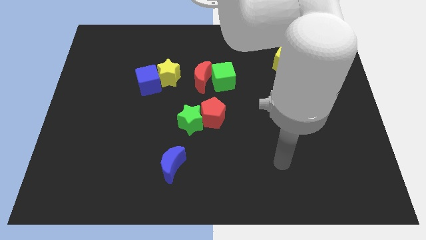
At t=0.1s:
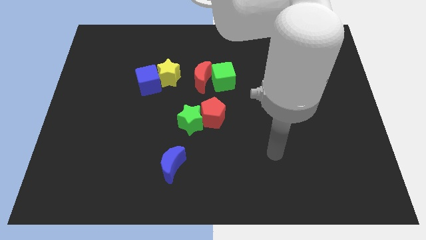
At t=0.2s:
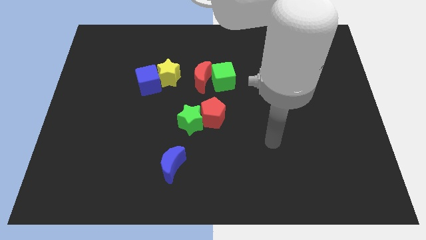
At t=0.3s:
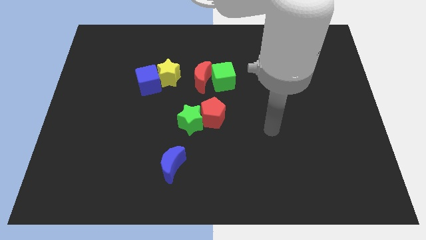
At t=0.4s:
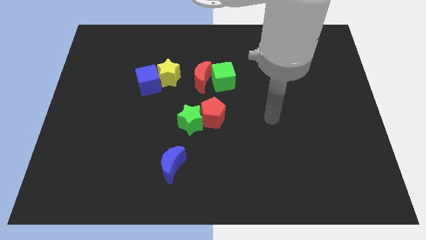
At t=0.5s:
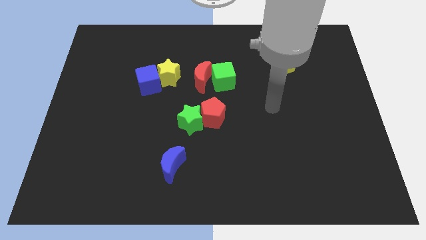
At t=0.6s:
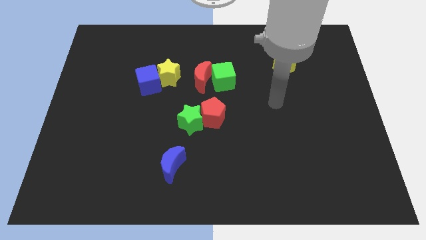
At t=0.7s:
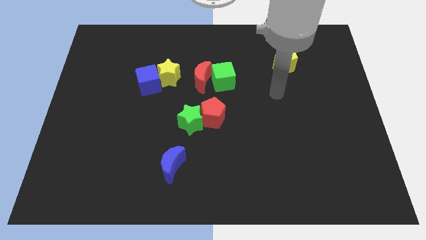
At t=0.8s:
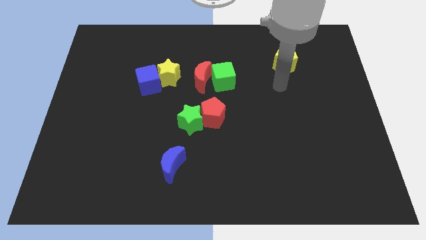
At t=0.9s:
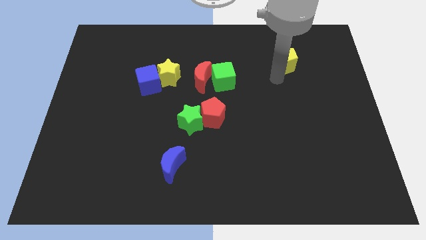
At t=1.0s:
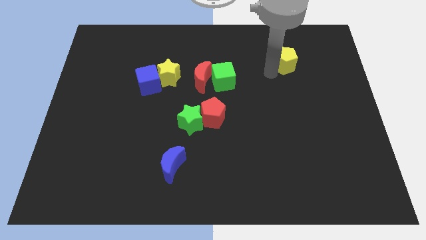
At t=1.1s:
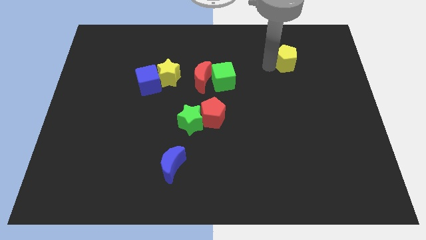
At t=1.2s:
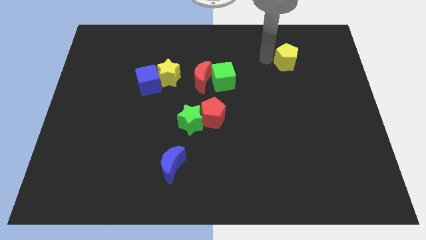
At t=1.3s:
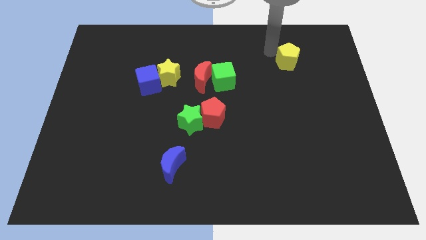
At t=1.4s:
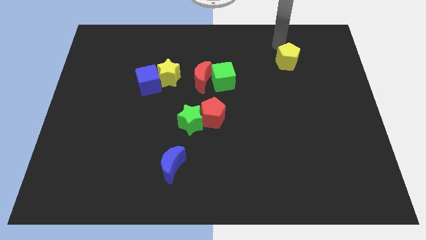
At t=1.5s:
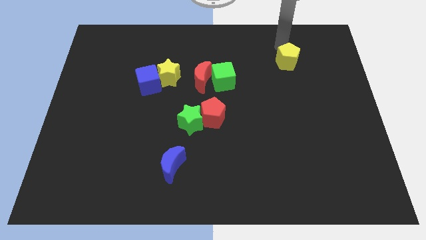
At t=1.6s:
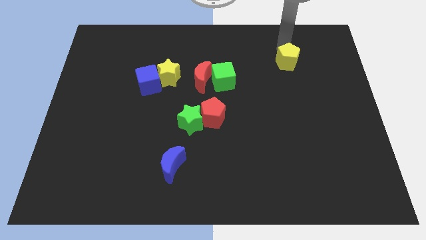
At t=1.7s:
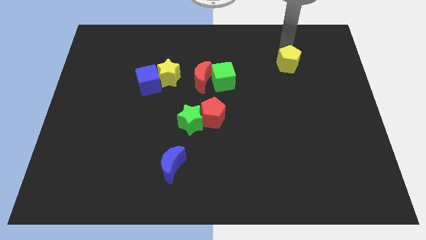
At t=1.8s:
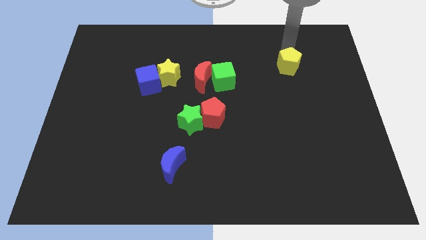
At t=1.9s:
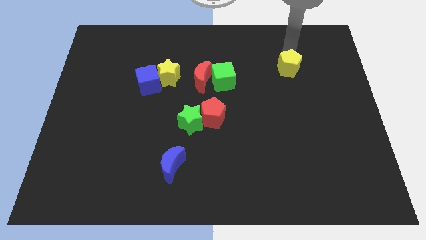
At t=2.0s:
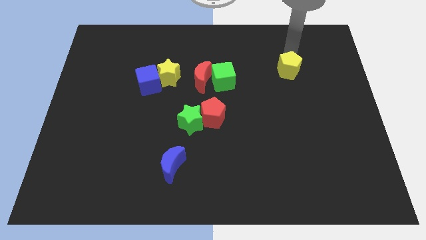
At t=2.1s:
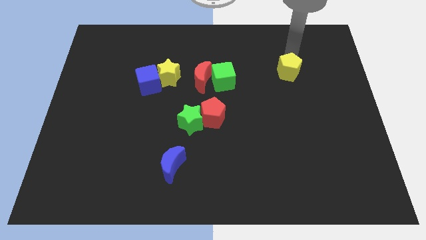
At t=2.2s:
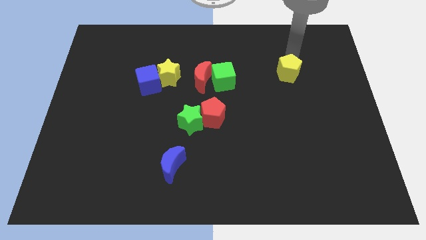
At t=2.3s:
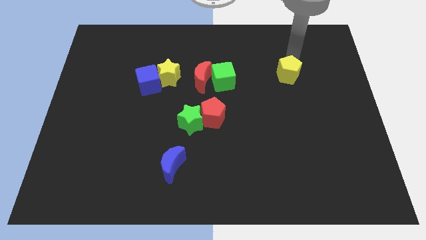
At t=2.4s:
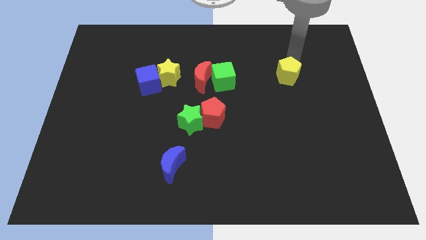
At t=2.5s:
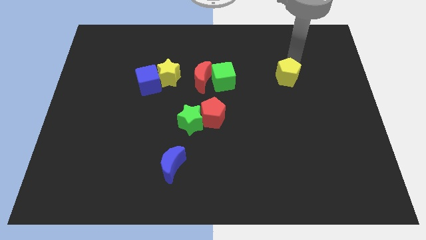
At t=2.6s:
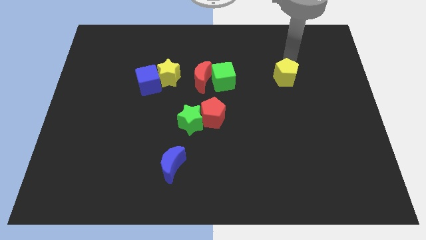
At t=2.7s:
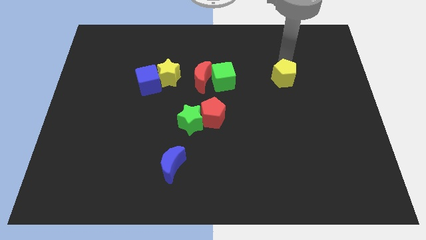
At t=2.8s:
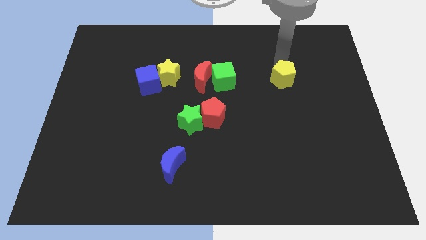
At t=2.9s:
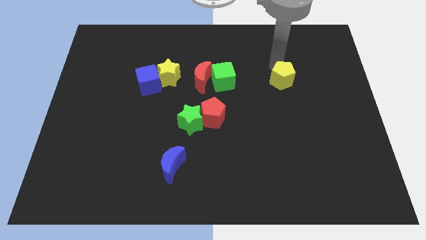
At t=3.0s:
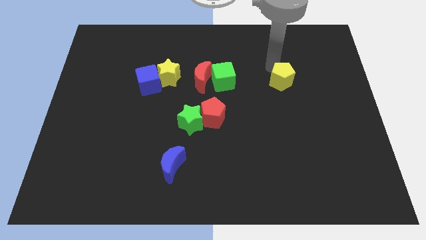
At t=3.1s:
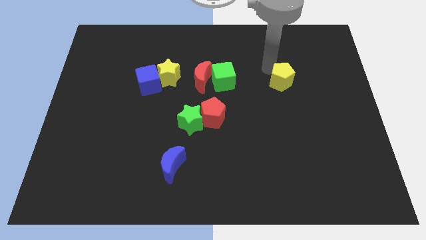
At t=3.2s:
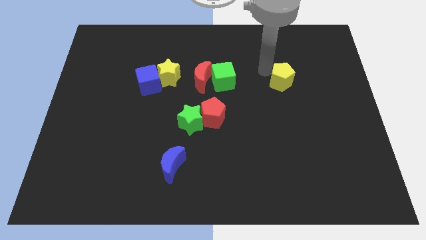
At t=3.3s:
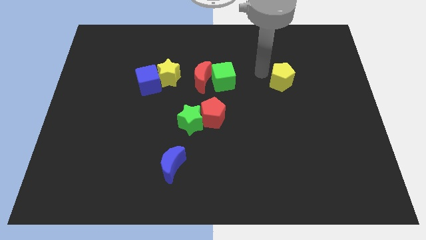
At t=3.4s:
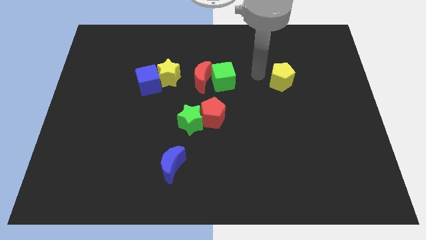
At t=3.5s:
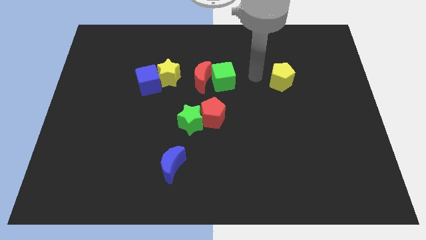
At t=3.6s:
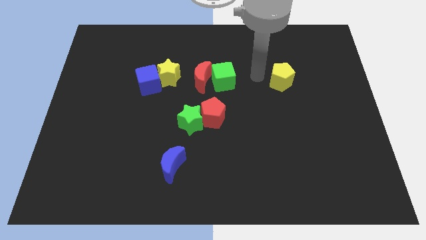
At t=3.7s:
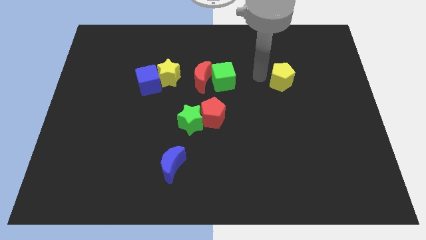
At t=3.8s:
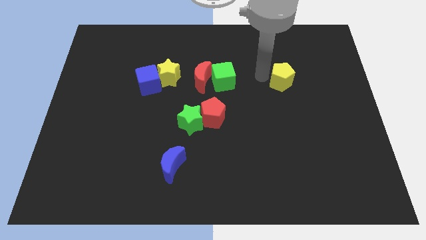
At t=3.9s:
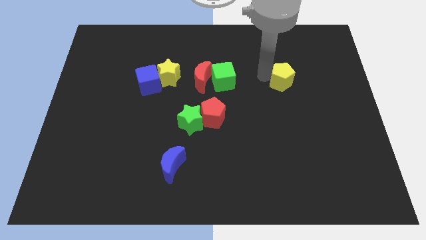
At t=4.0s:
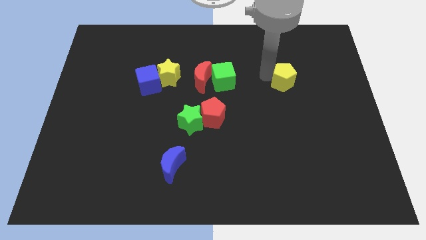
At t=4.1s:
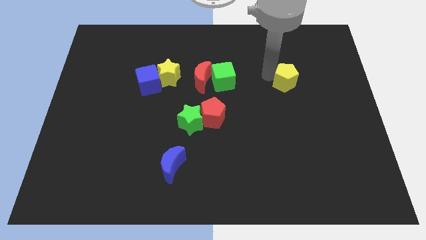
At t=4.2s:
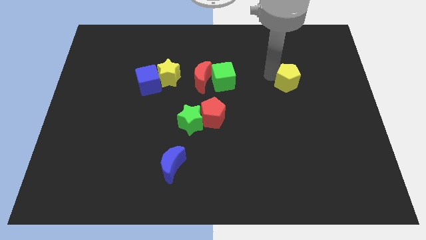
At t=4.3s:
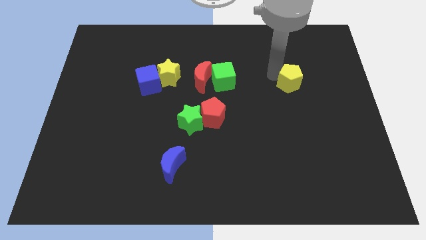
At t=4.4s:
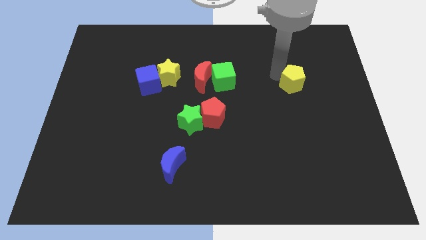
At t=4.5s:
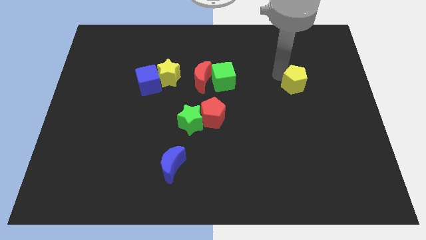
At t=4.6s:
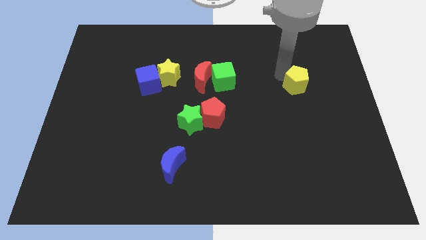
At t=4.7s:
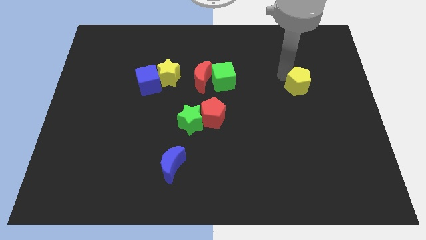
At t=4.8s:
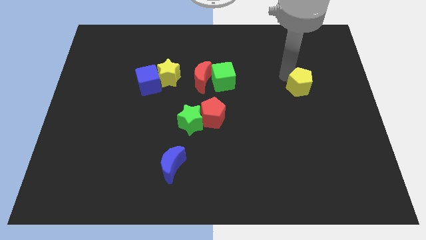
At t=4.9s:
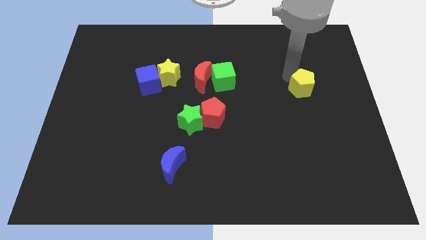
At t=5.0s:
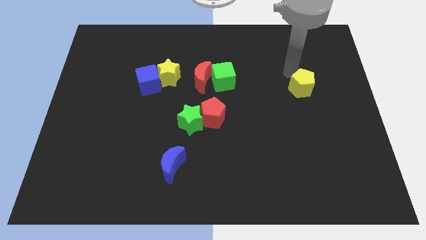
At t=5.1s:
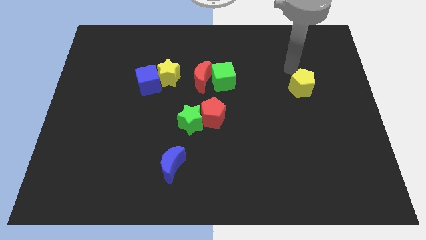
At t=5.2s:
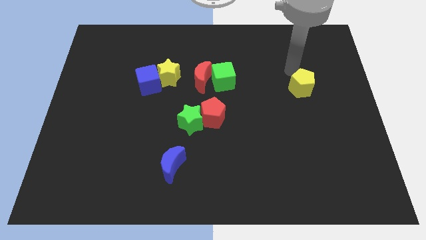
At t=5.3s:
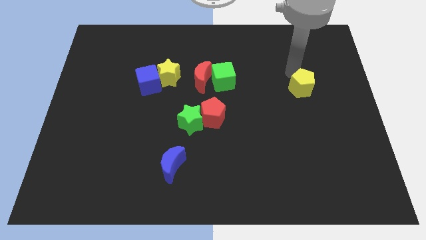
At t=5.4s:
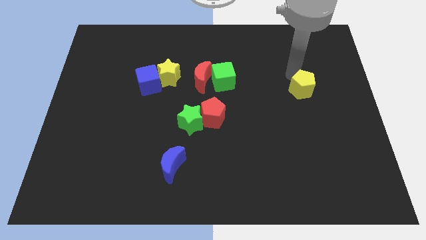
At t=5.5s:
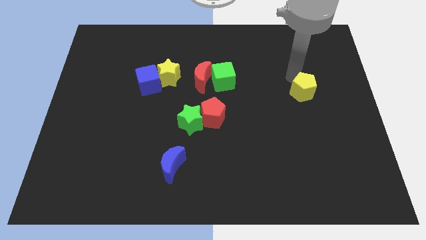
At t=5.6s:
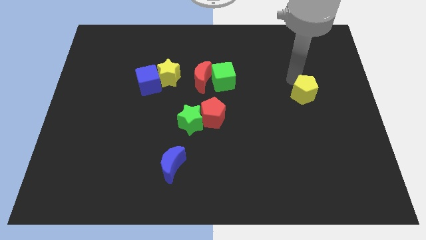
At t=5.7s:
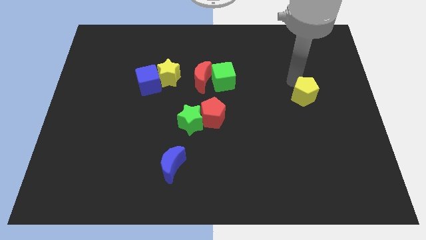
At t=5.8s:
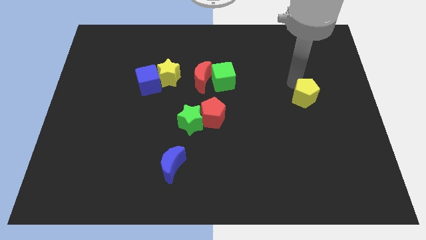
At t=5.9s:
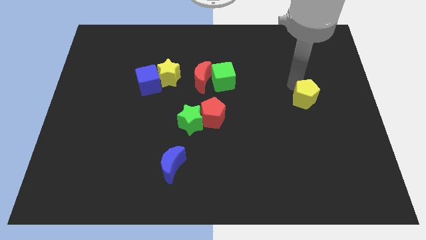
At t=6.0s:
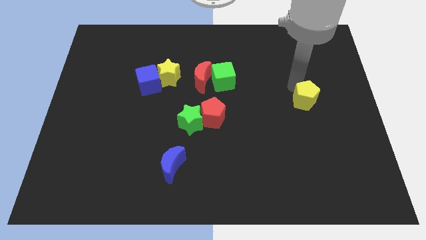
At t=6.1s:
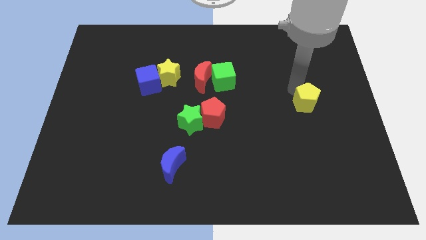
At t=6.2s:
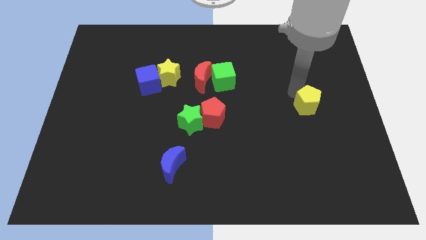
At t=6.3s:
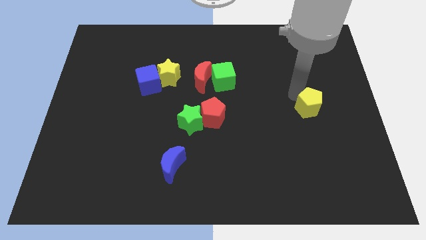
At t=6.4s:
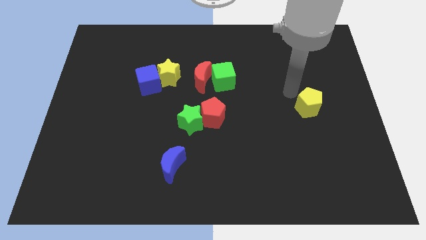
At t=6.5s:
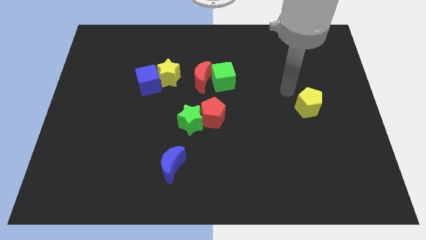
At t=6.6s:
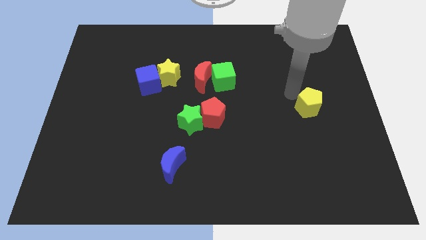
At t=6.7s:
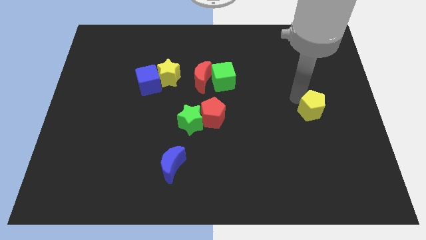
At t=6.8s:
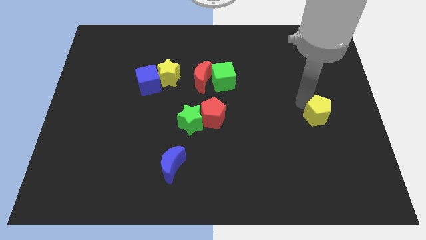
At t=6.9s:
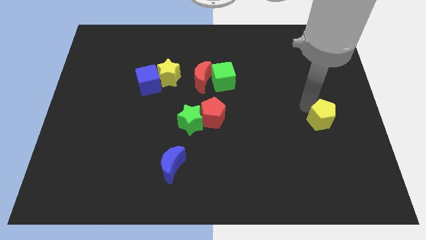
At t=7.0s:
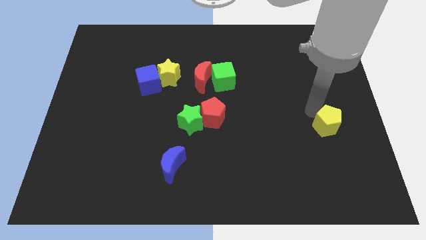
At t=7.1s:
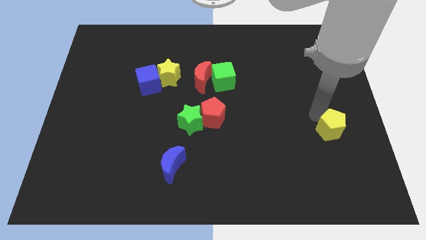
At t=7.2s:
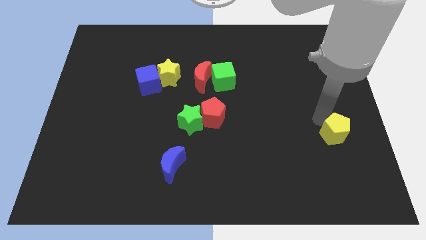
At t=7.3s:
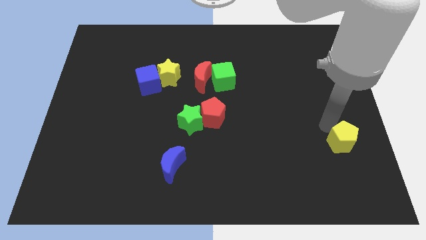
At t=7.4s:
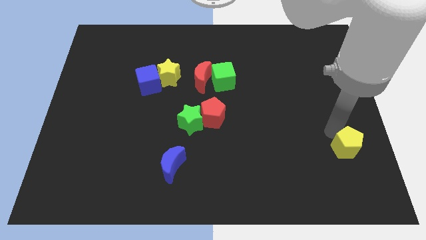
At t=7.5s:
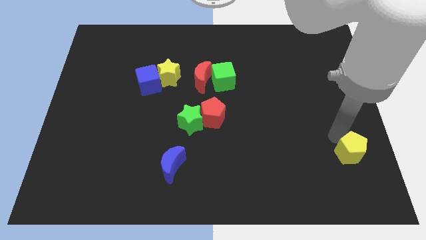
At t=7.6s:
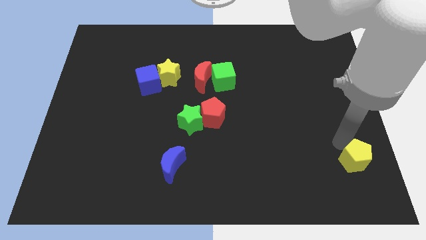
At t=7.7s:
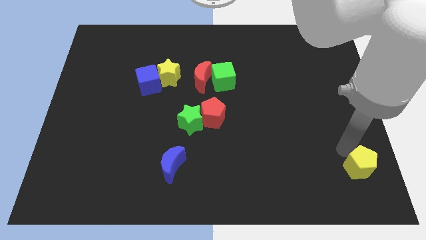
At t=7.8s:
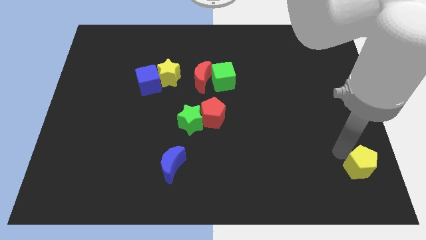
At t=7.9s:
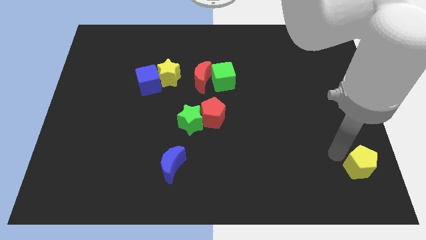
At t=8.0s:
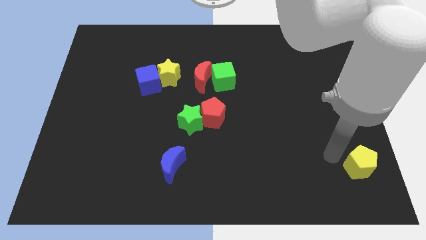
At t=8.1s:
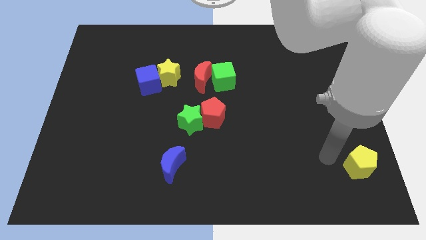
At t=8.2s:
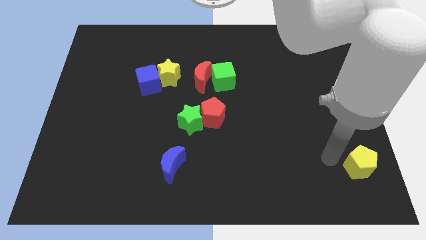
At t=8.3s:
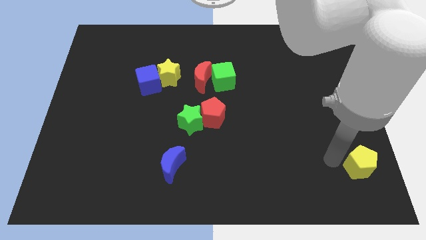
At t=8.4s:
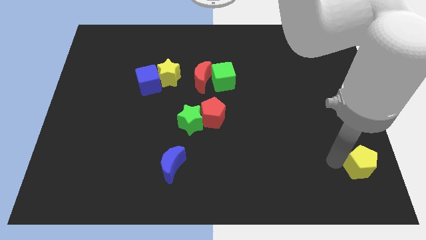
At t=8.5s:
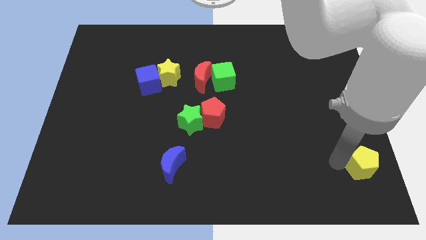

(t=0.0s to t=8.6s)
push the yellow pentagon to the bottom right of the board
